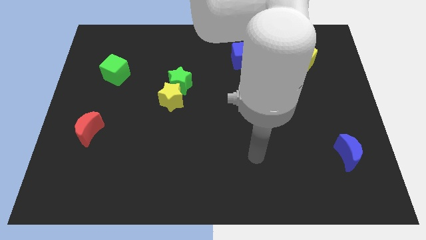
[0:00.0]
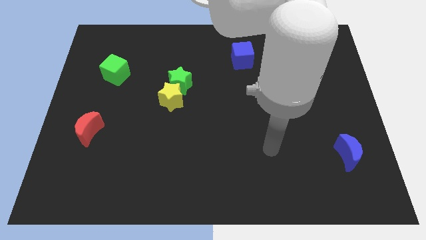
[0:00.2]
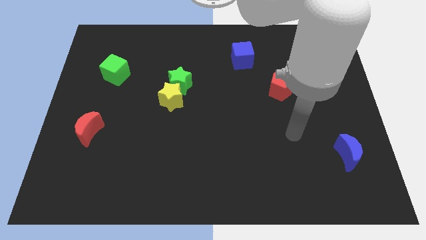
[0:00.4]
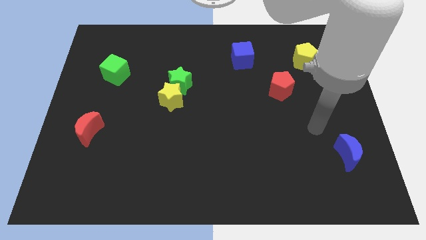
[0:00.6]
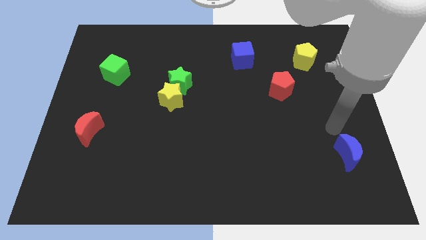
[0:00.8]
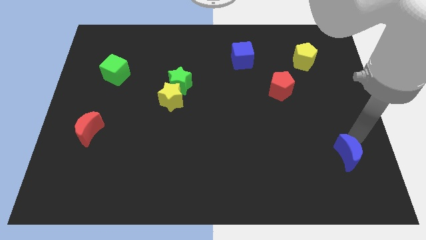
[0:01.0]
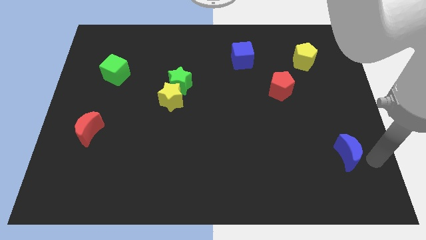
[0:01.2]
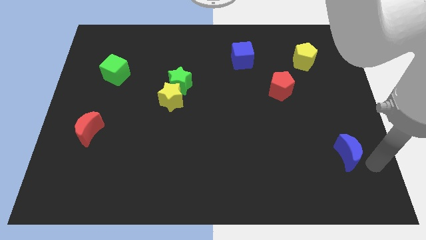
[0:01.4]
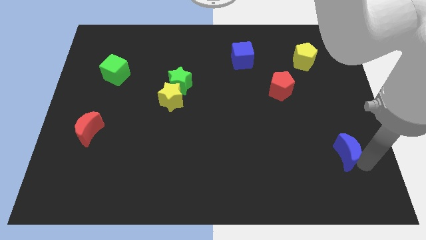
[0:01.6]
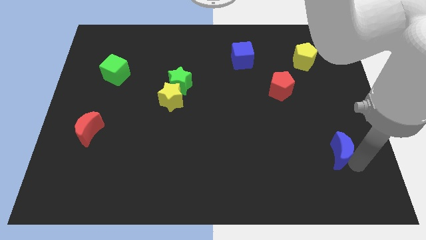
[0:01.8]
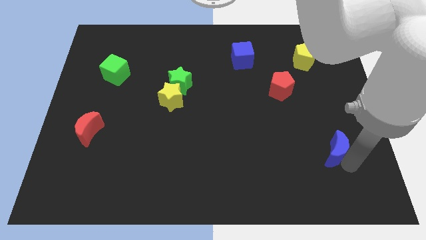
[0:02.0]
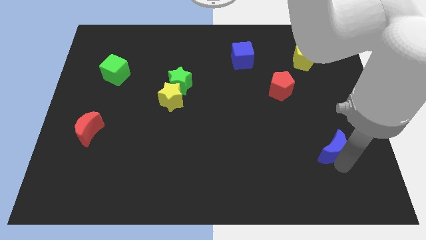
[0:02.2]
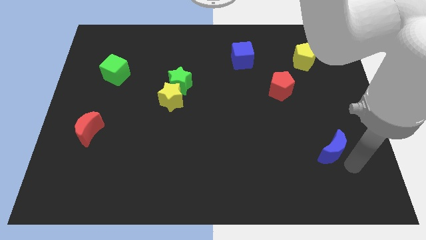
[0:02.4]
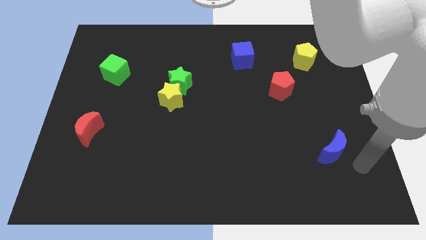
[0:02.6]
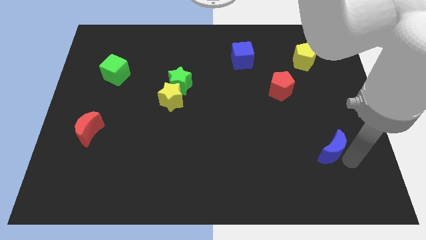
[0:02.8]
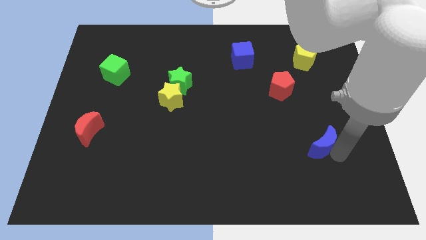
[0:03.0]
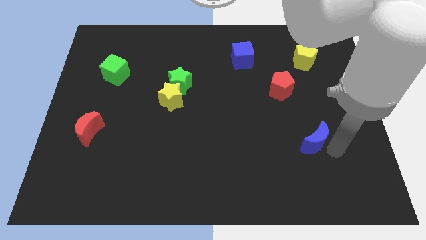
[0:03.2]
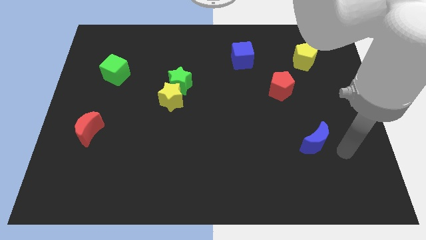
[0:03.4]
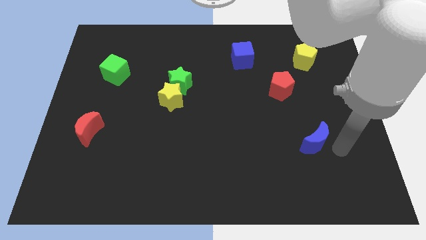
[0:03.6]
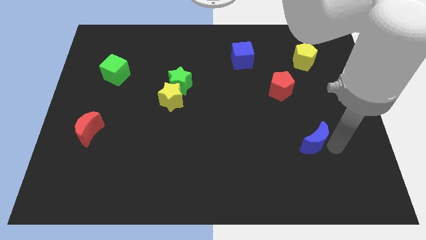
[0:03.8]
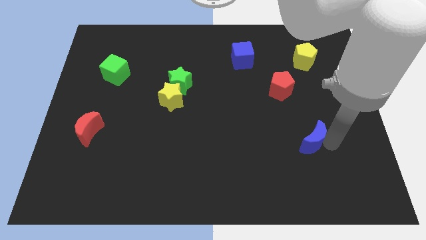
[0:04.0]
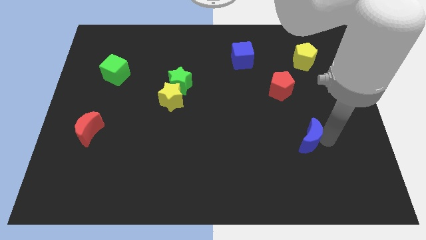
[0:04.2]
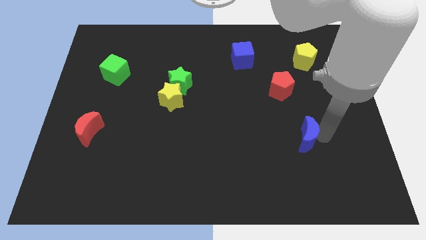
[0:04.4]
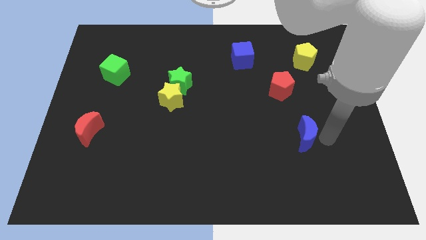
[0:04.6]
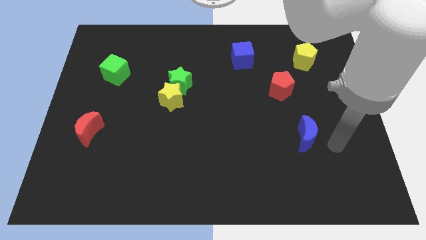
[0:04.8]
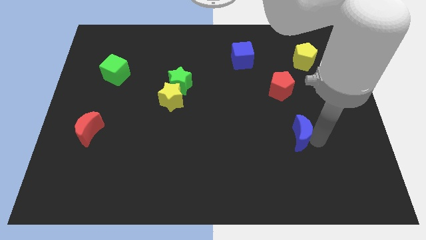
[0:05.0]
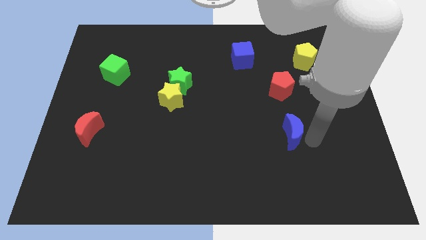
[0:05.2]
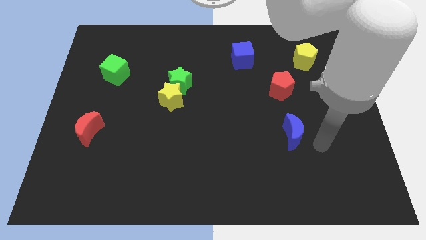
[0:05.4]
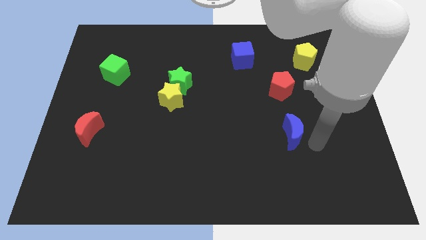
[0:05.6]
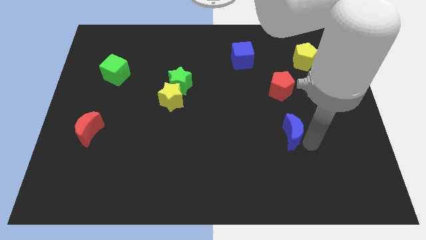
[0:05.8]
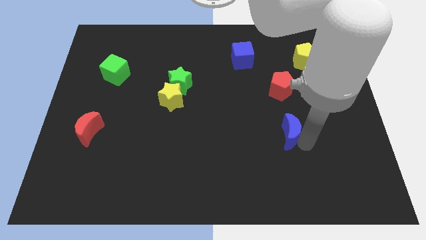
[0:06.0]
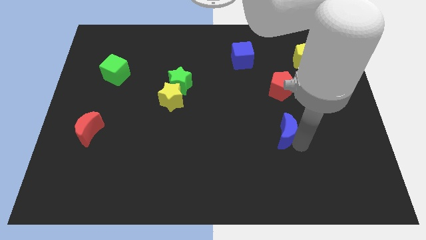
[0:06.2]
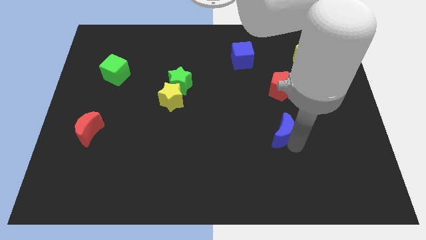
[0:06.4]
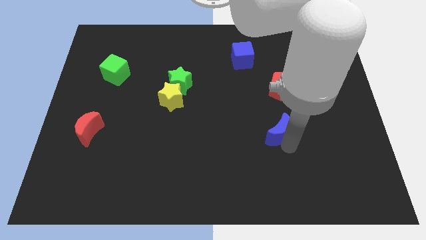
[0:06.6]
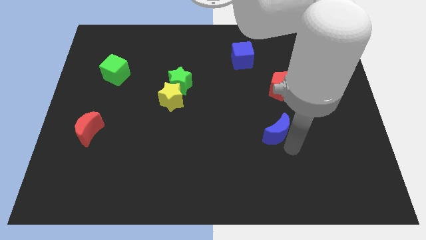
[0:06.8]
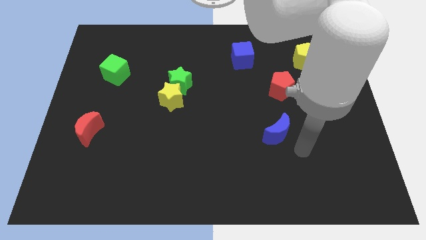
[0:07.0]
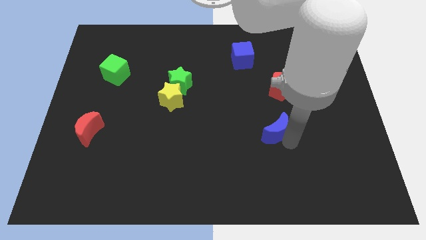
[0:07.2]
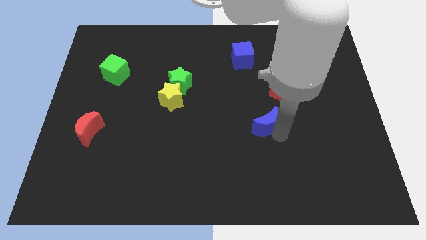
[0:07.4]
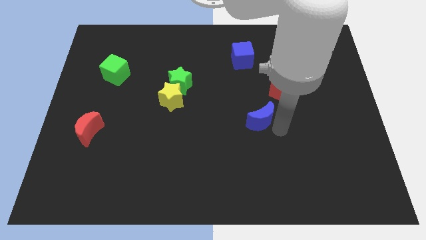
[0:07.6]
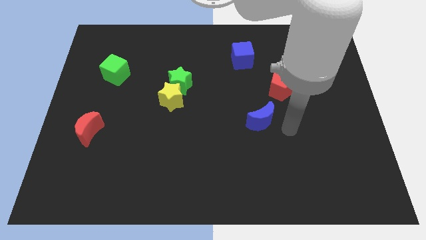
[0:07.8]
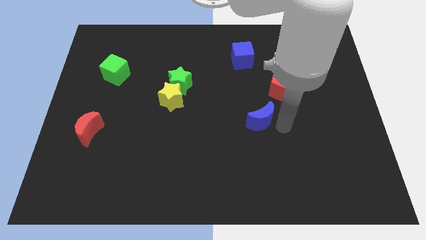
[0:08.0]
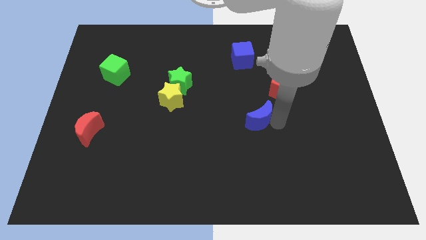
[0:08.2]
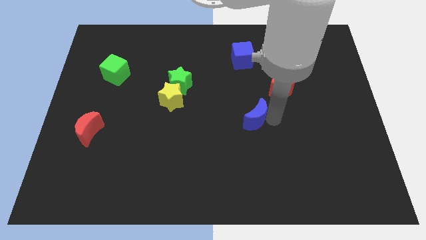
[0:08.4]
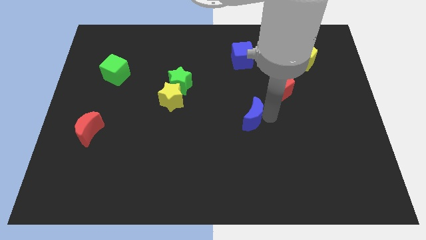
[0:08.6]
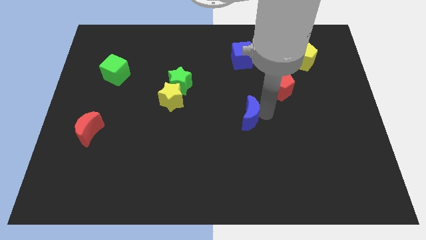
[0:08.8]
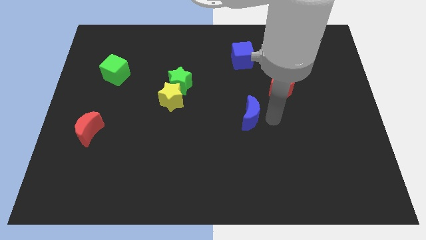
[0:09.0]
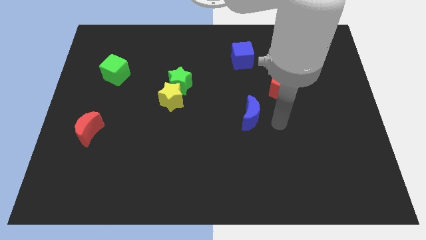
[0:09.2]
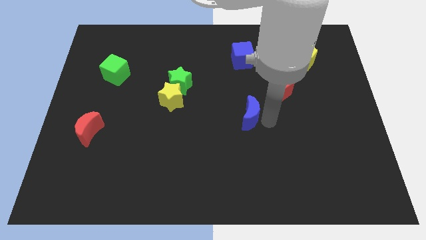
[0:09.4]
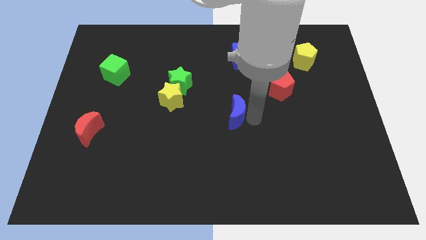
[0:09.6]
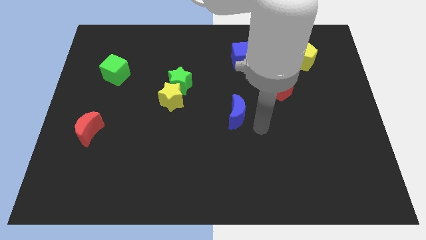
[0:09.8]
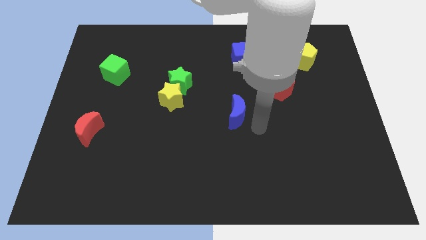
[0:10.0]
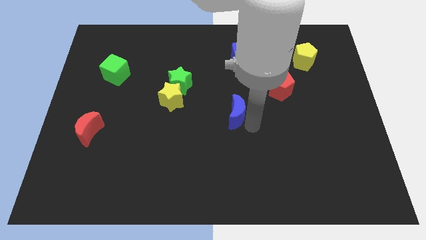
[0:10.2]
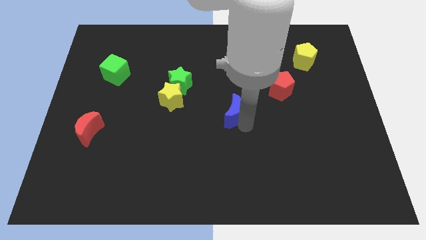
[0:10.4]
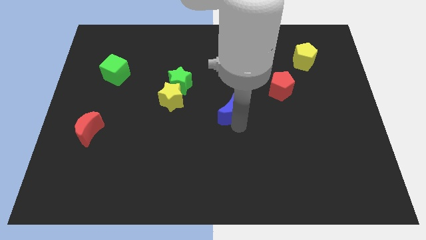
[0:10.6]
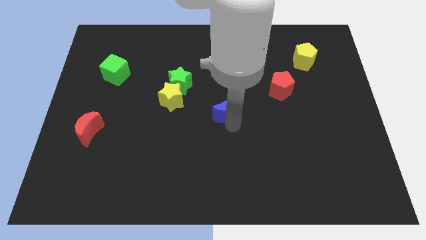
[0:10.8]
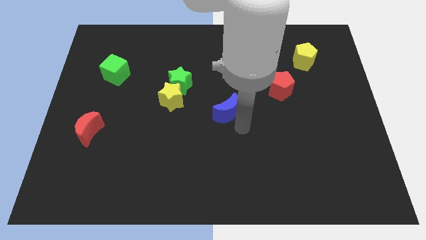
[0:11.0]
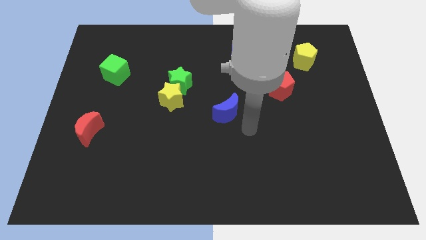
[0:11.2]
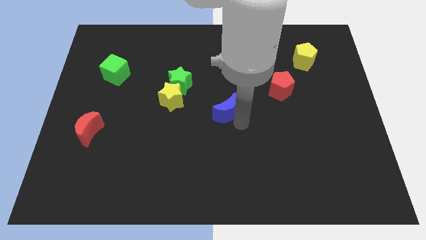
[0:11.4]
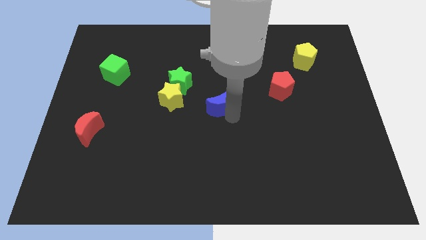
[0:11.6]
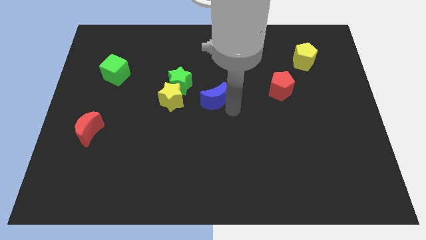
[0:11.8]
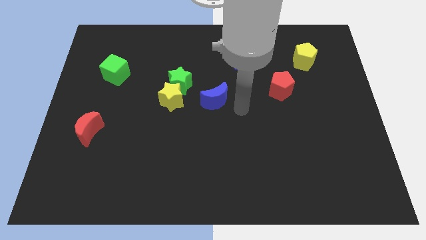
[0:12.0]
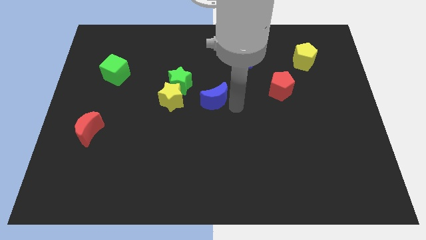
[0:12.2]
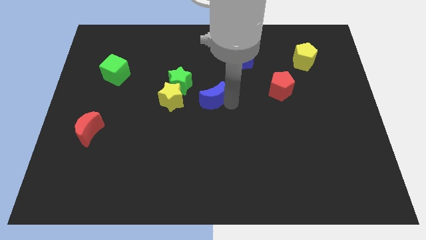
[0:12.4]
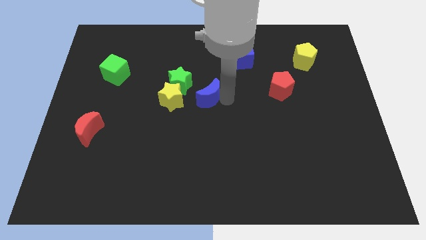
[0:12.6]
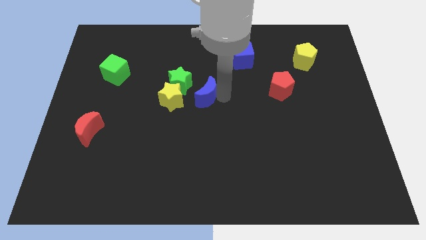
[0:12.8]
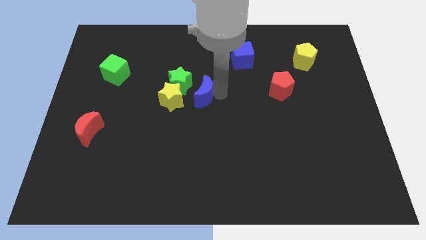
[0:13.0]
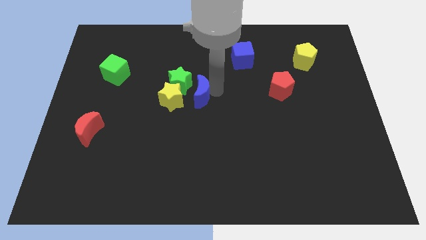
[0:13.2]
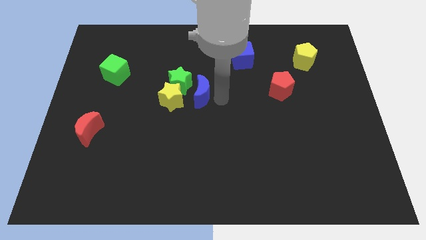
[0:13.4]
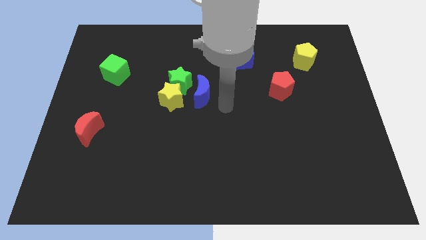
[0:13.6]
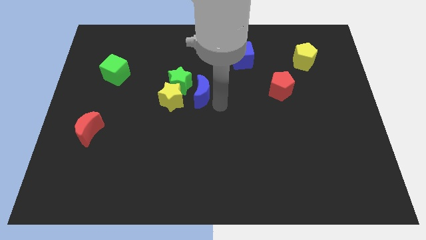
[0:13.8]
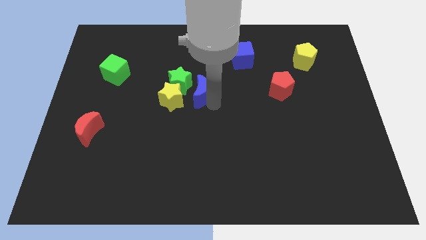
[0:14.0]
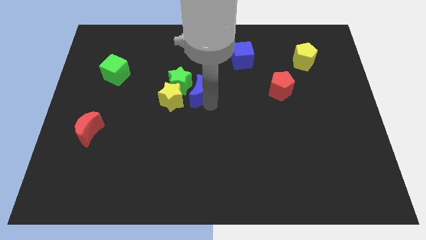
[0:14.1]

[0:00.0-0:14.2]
move the blue moon next to the green star
